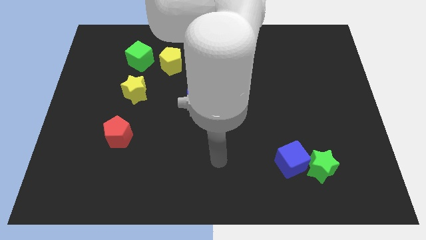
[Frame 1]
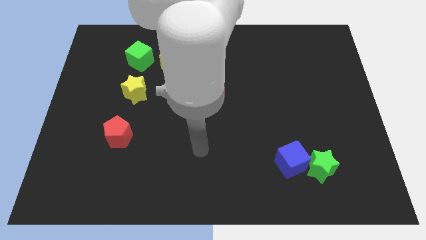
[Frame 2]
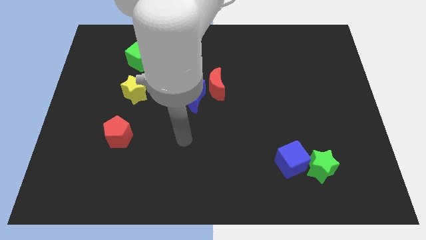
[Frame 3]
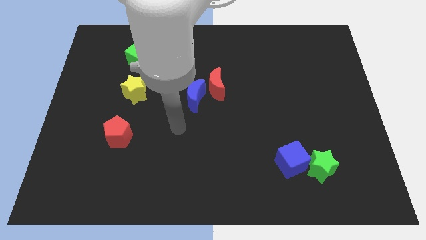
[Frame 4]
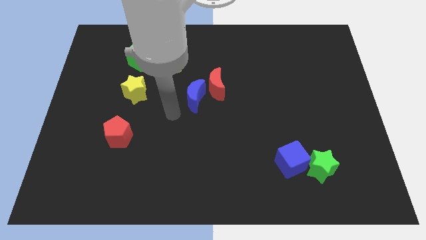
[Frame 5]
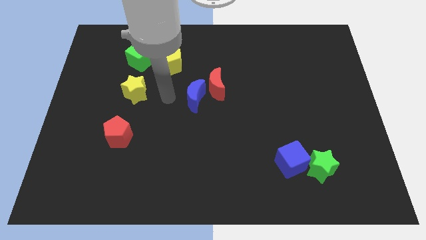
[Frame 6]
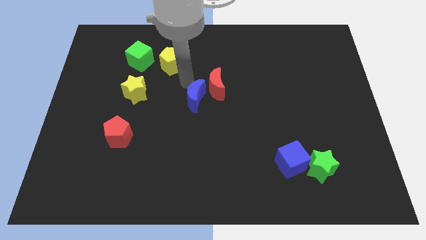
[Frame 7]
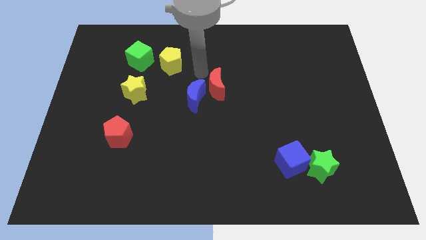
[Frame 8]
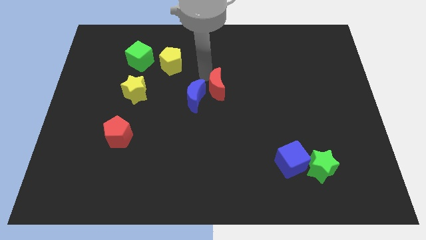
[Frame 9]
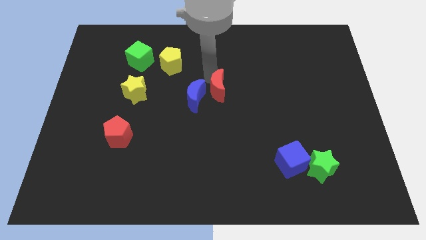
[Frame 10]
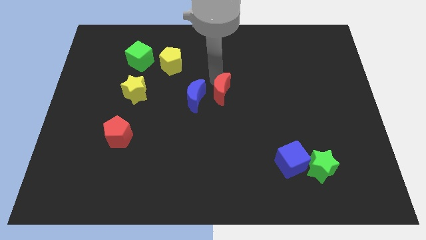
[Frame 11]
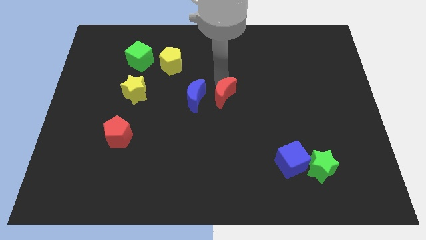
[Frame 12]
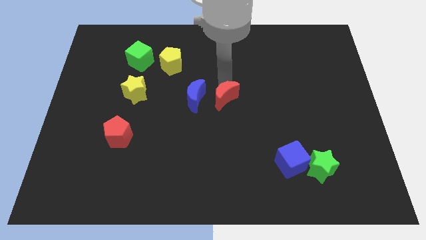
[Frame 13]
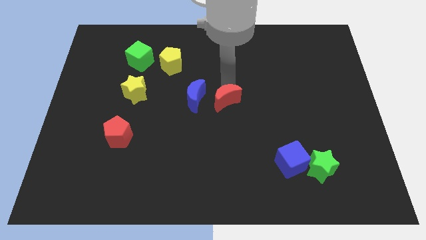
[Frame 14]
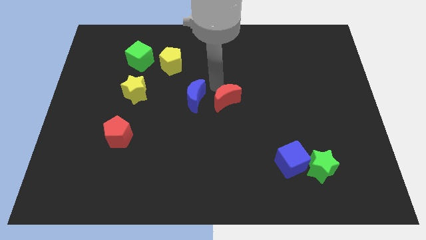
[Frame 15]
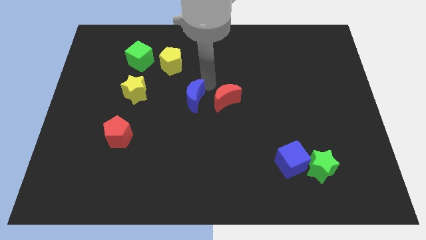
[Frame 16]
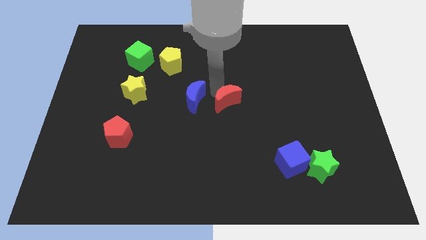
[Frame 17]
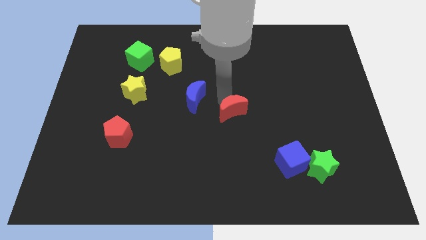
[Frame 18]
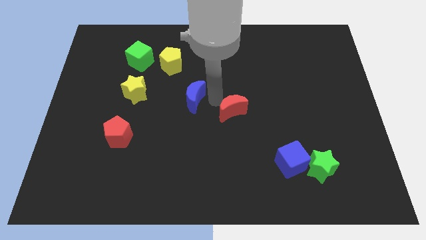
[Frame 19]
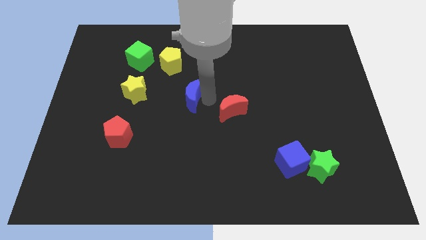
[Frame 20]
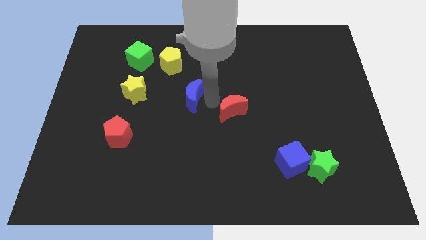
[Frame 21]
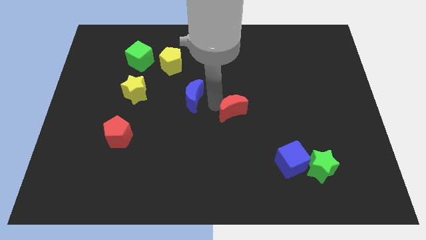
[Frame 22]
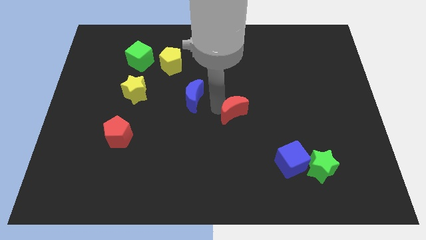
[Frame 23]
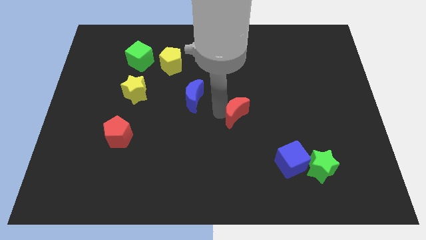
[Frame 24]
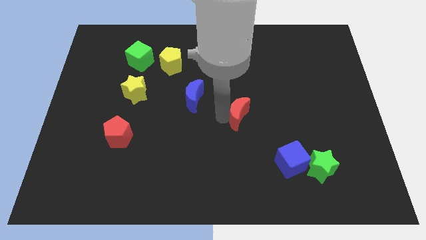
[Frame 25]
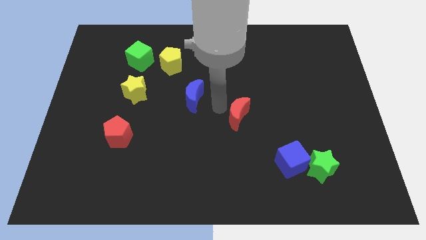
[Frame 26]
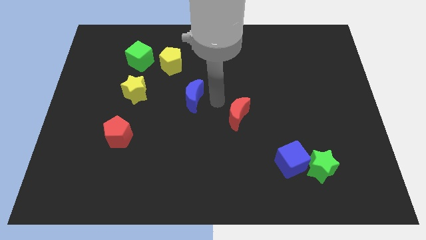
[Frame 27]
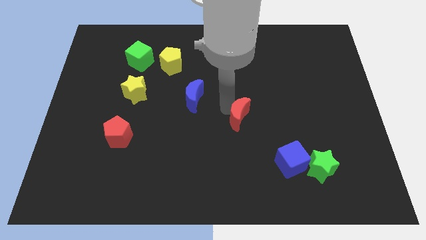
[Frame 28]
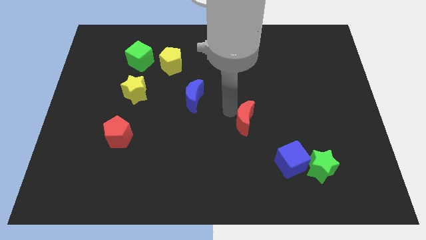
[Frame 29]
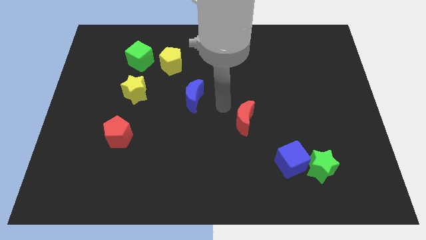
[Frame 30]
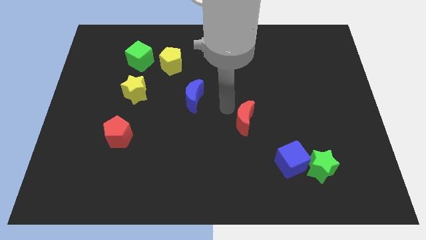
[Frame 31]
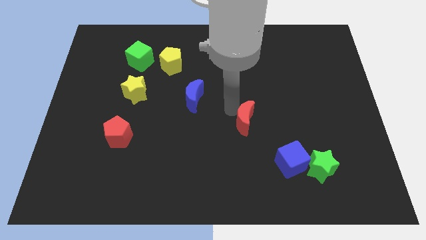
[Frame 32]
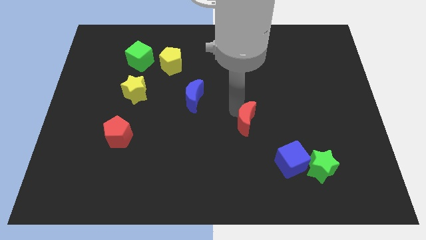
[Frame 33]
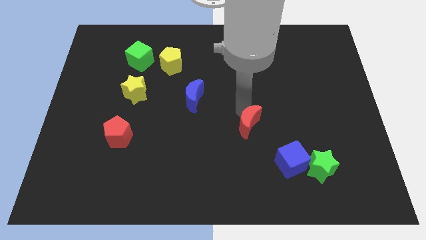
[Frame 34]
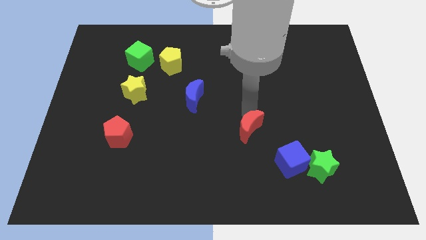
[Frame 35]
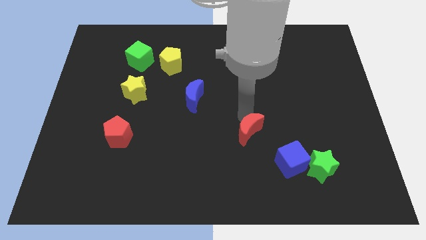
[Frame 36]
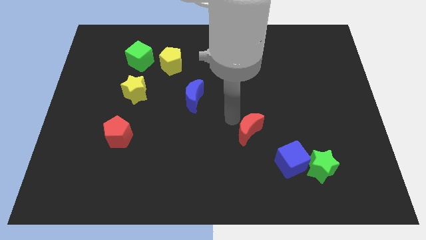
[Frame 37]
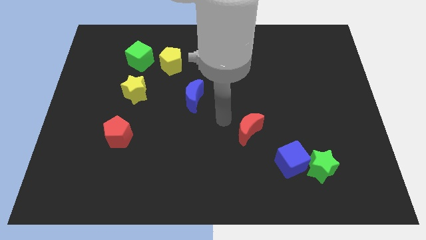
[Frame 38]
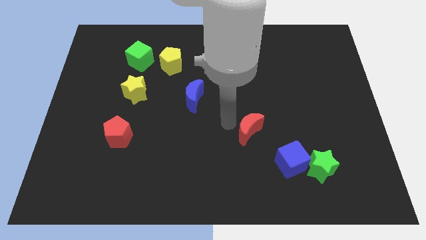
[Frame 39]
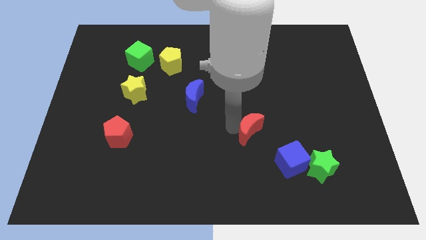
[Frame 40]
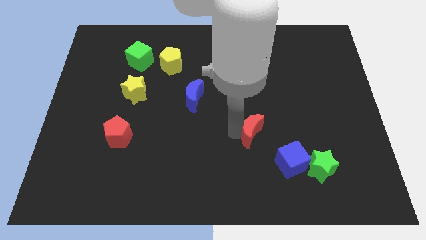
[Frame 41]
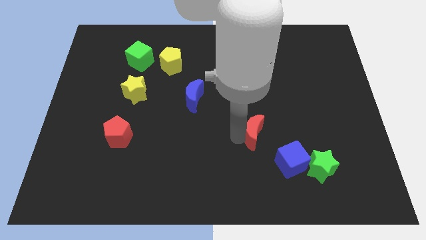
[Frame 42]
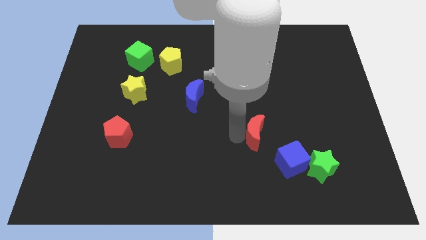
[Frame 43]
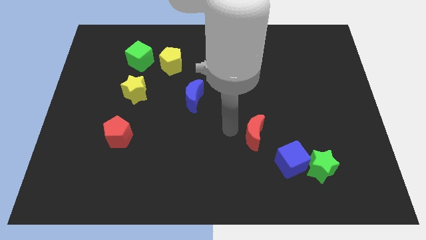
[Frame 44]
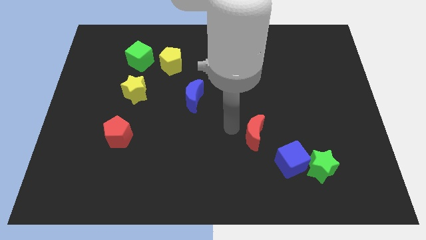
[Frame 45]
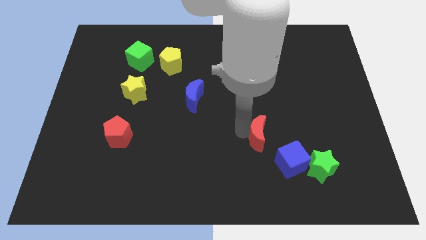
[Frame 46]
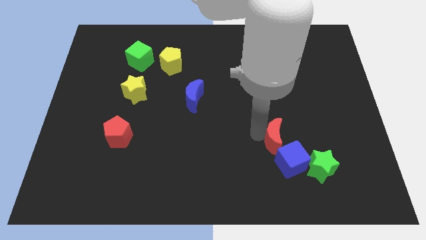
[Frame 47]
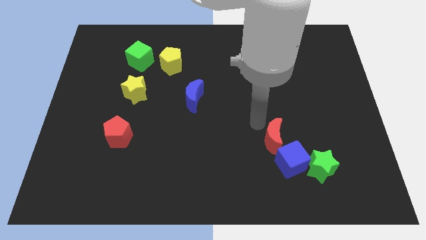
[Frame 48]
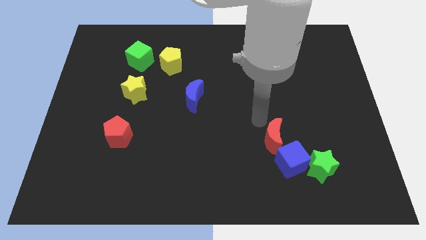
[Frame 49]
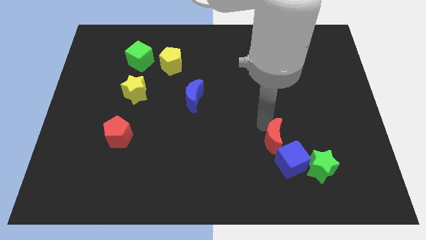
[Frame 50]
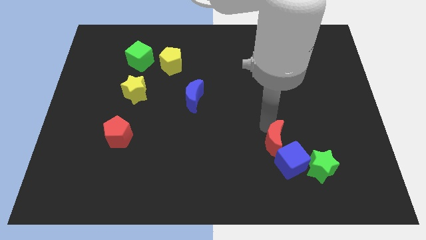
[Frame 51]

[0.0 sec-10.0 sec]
put the red moon towards the blue cube

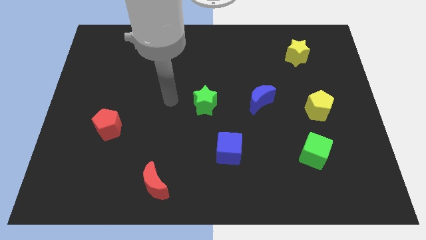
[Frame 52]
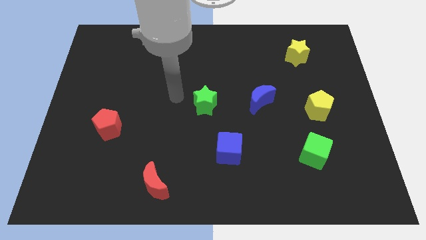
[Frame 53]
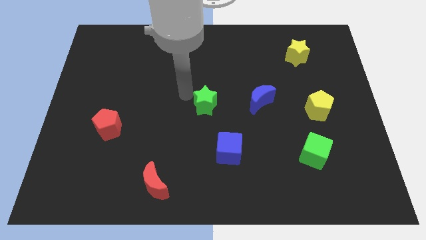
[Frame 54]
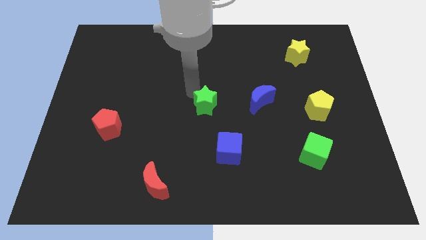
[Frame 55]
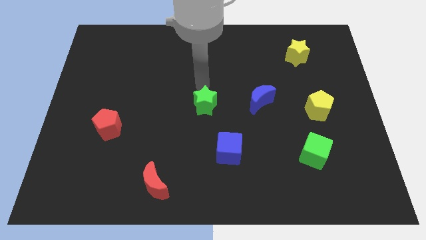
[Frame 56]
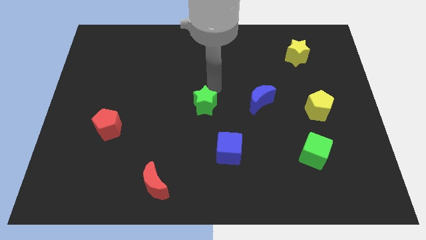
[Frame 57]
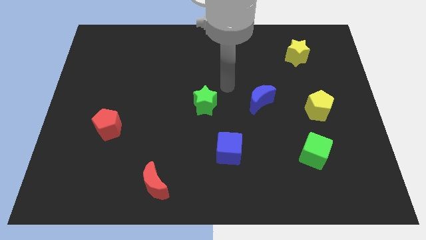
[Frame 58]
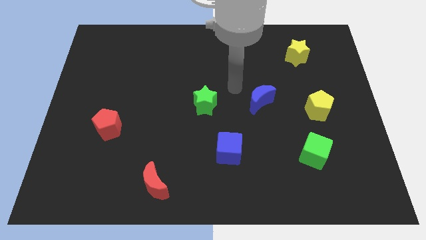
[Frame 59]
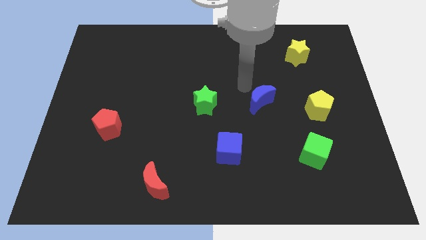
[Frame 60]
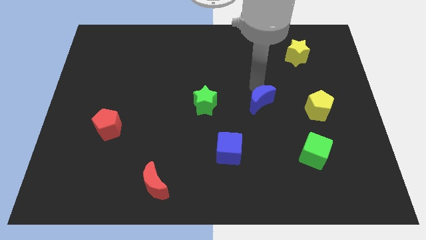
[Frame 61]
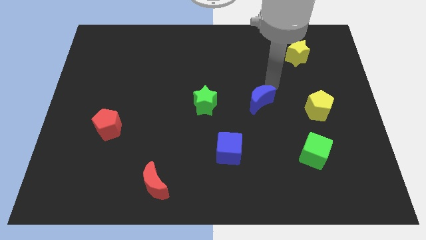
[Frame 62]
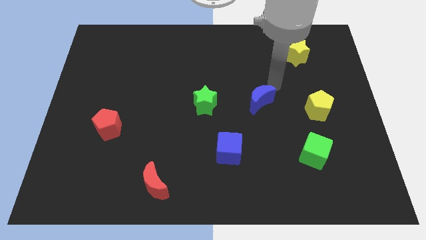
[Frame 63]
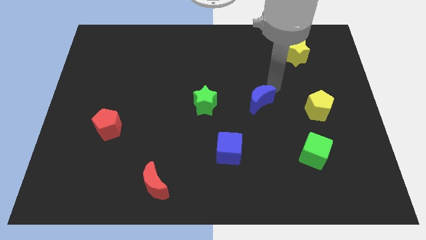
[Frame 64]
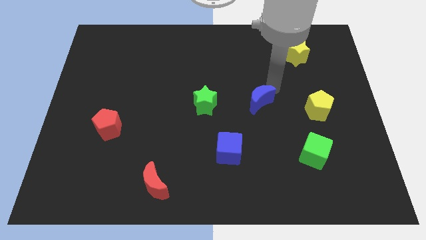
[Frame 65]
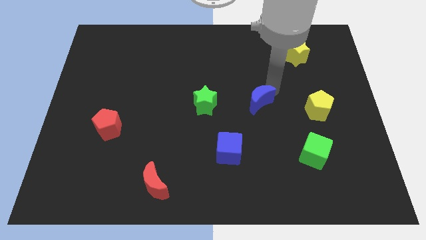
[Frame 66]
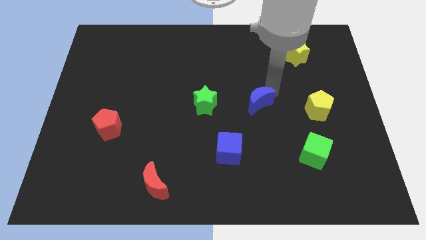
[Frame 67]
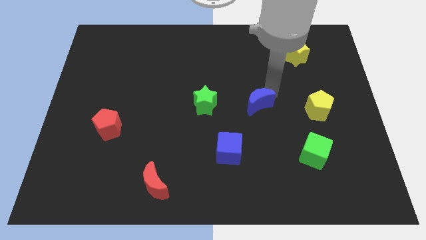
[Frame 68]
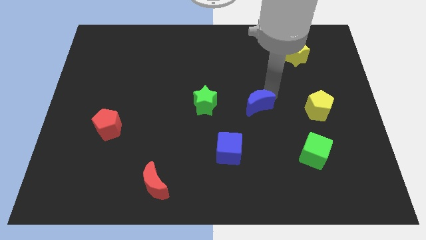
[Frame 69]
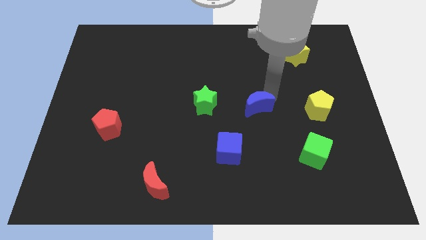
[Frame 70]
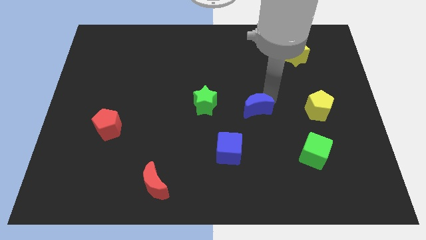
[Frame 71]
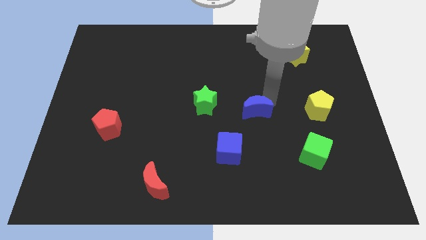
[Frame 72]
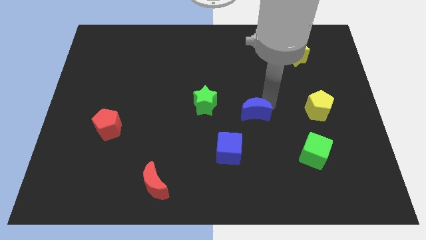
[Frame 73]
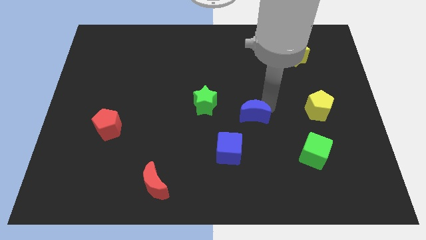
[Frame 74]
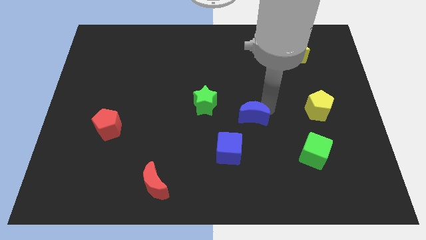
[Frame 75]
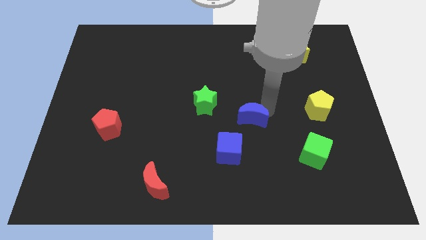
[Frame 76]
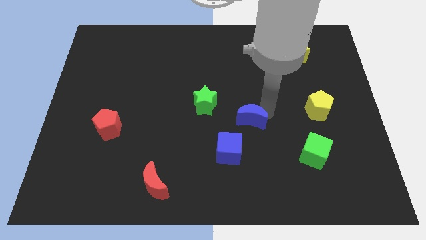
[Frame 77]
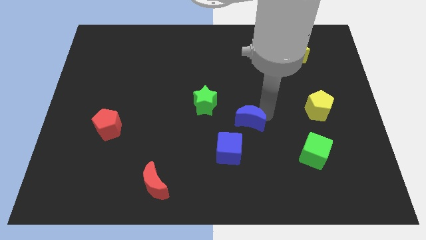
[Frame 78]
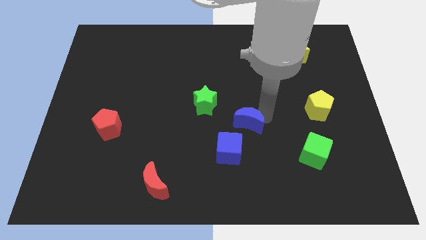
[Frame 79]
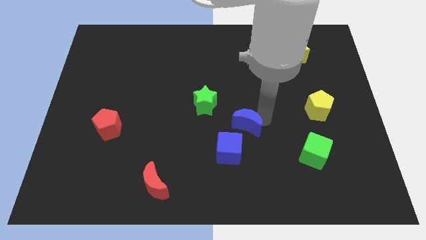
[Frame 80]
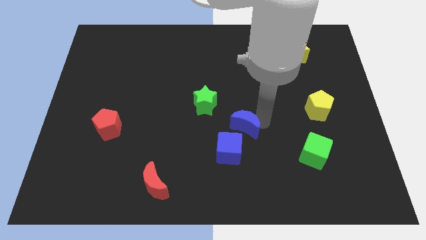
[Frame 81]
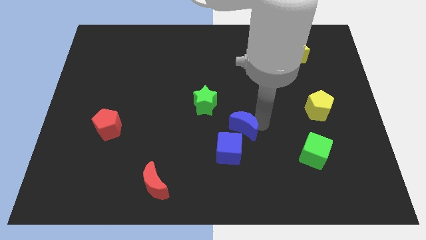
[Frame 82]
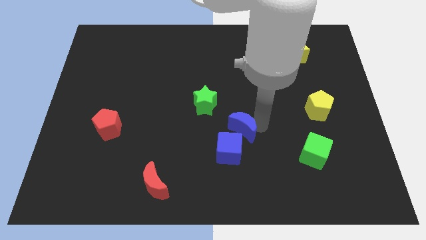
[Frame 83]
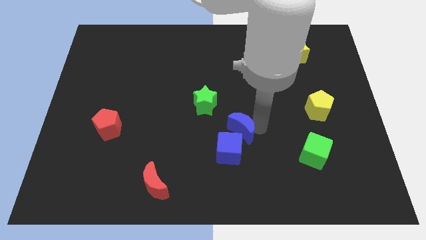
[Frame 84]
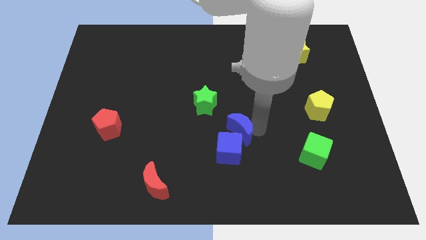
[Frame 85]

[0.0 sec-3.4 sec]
slide the blue moon next to the blue cube
